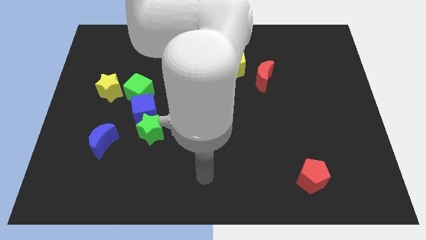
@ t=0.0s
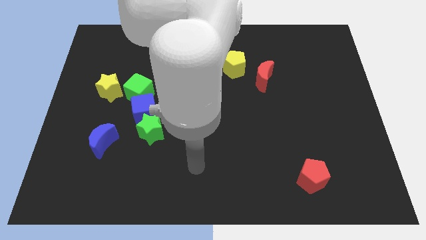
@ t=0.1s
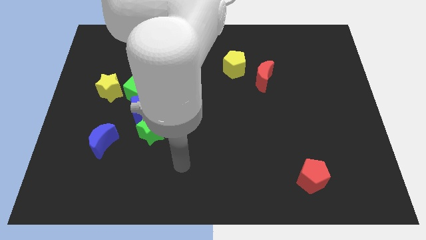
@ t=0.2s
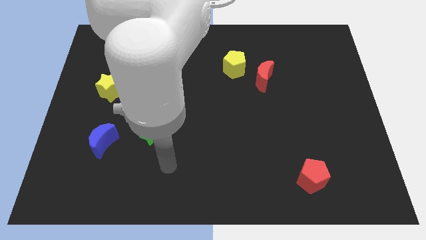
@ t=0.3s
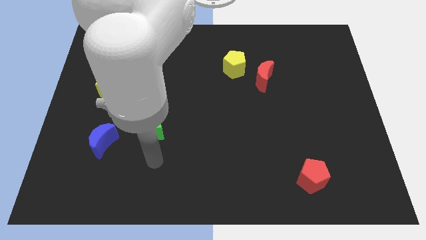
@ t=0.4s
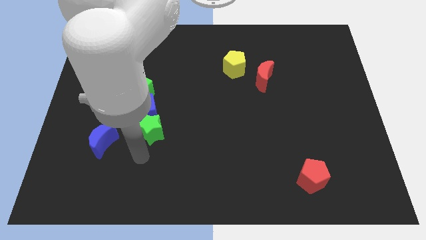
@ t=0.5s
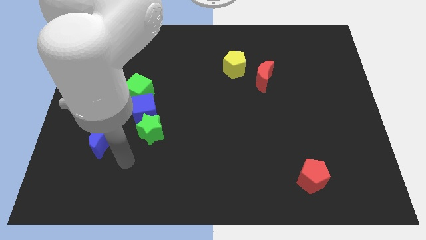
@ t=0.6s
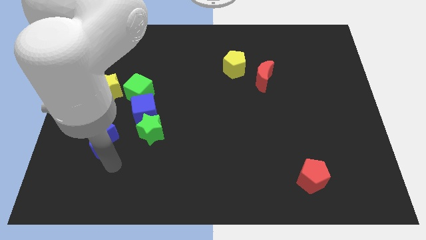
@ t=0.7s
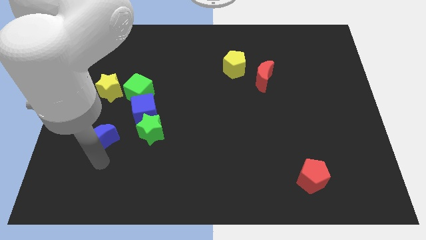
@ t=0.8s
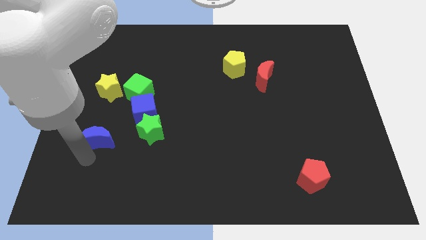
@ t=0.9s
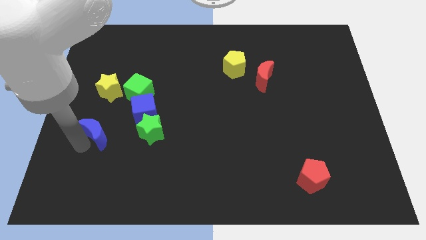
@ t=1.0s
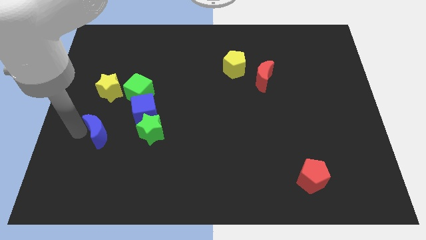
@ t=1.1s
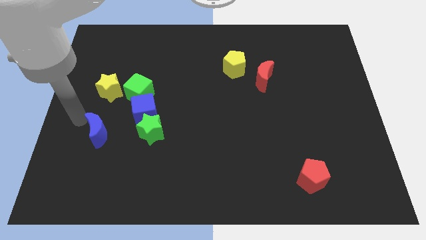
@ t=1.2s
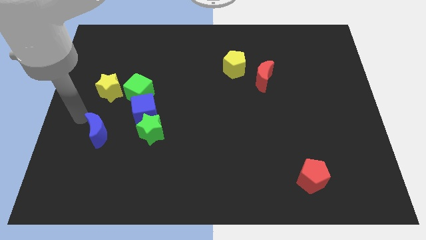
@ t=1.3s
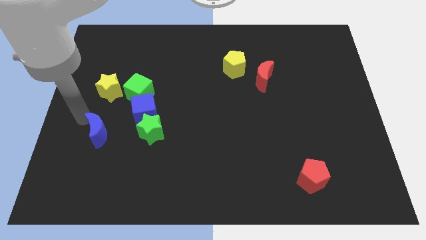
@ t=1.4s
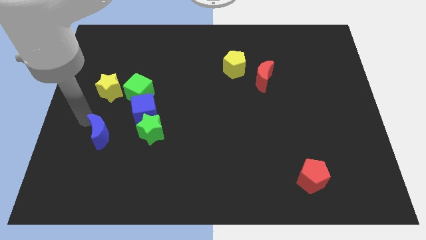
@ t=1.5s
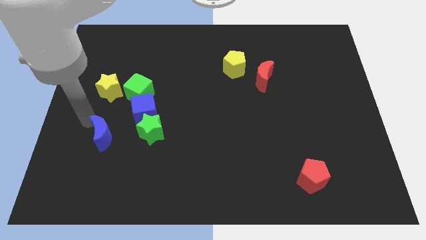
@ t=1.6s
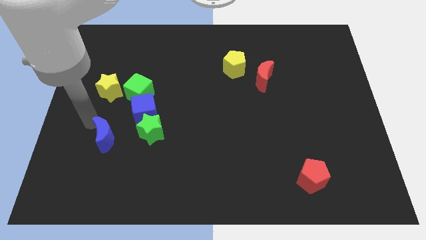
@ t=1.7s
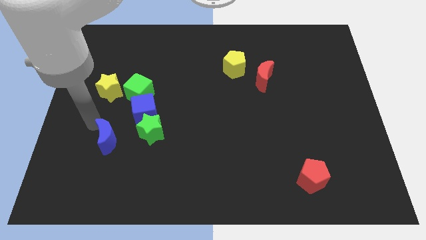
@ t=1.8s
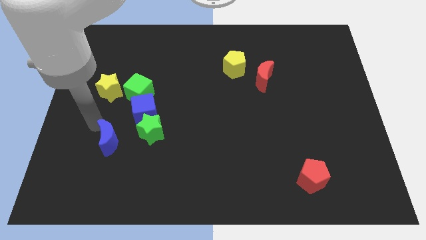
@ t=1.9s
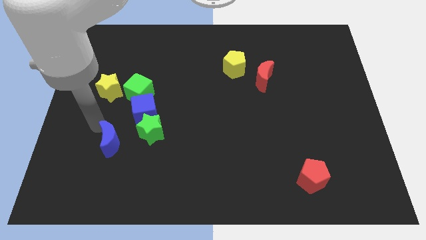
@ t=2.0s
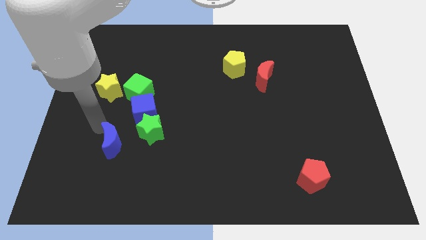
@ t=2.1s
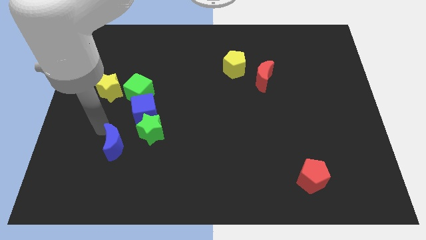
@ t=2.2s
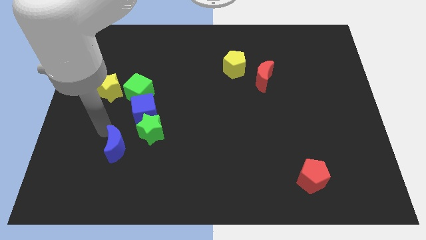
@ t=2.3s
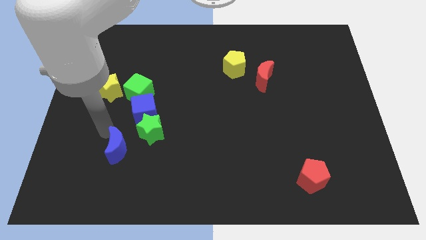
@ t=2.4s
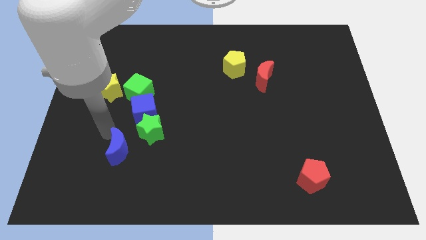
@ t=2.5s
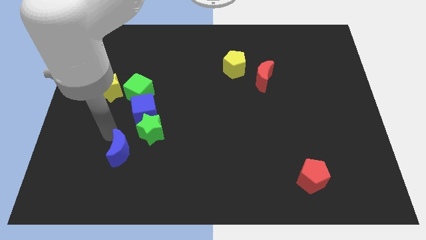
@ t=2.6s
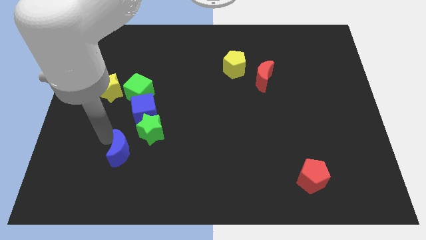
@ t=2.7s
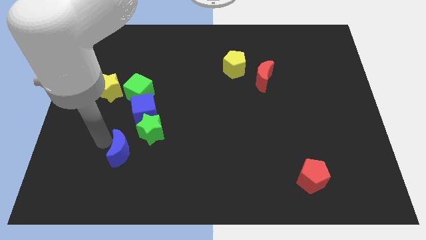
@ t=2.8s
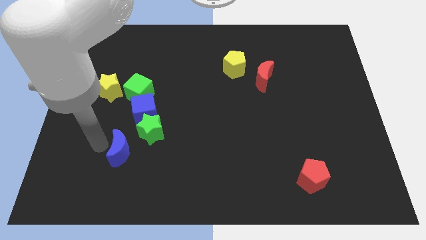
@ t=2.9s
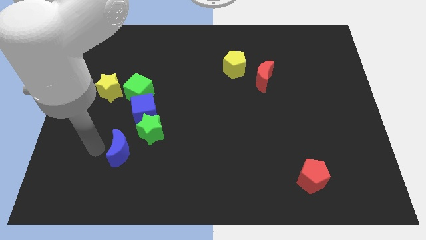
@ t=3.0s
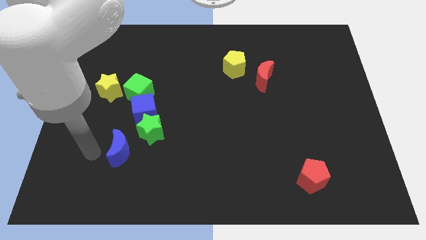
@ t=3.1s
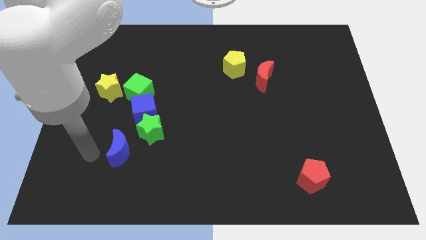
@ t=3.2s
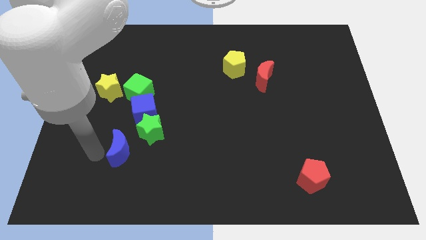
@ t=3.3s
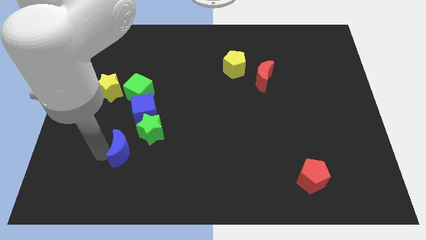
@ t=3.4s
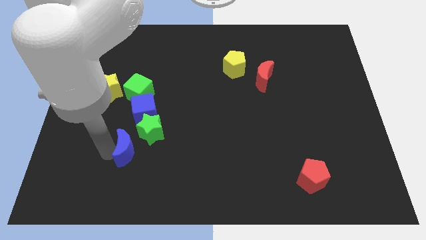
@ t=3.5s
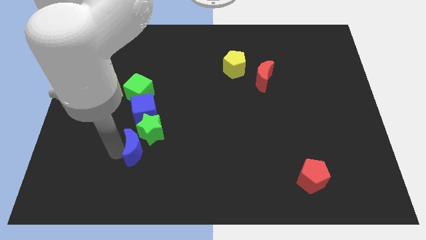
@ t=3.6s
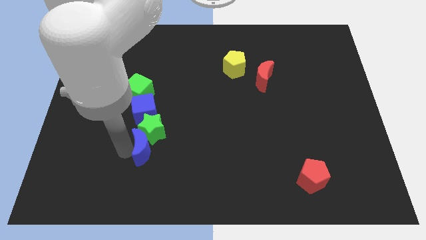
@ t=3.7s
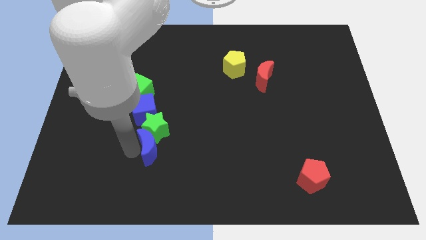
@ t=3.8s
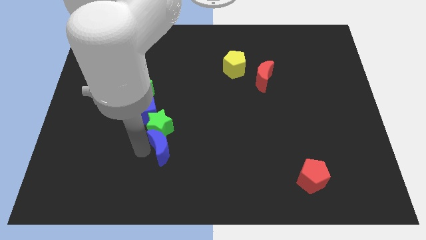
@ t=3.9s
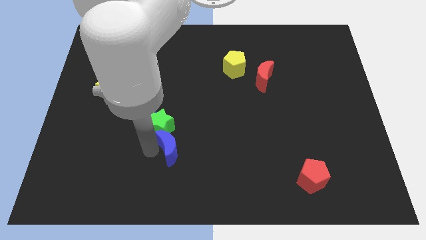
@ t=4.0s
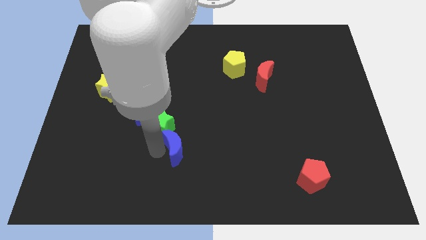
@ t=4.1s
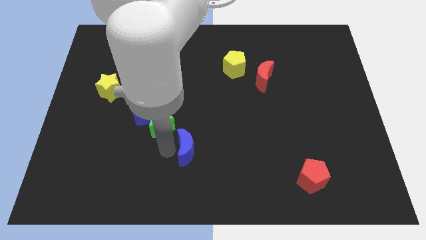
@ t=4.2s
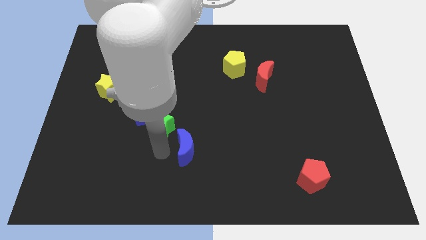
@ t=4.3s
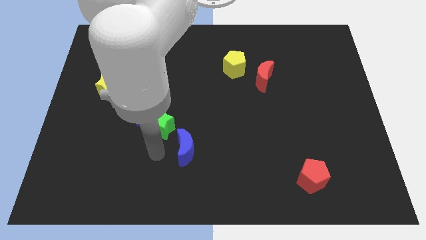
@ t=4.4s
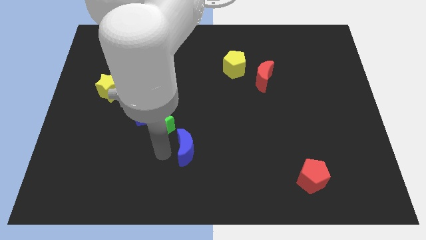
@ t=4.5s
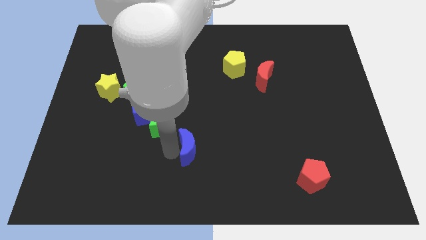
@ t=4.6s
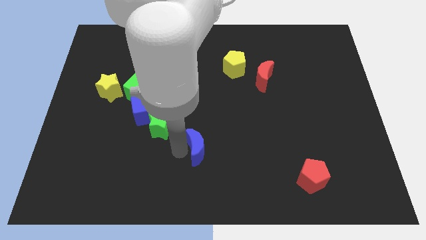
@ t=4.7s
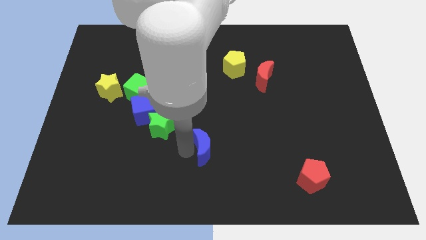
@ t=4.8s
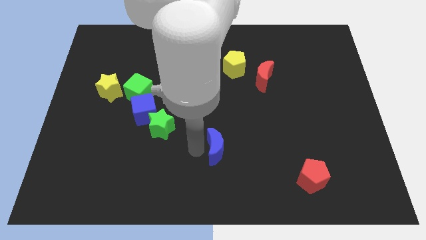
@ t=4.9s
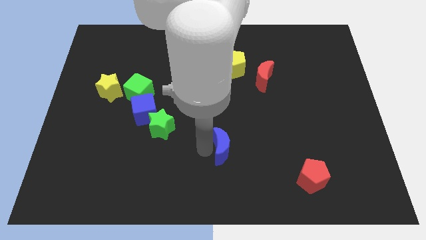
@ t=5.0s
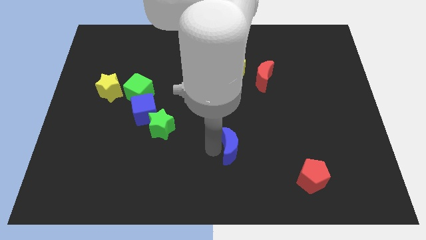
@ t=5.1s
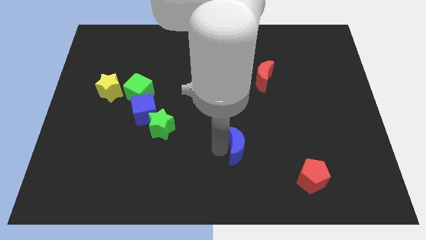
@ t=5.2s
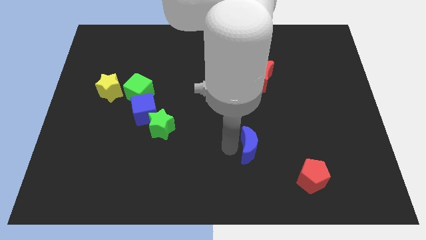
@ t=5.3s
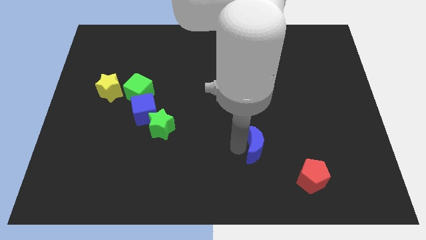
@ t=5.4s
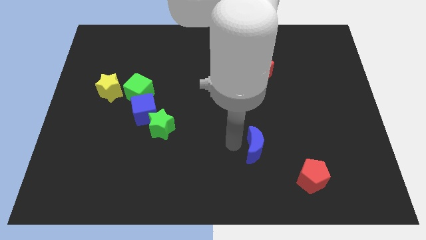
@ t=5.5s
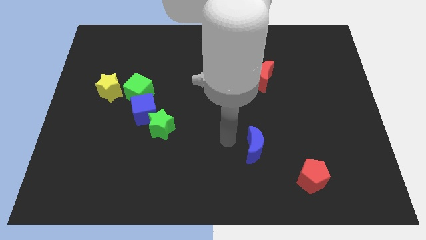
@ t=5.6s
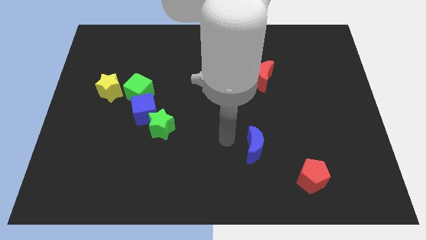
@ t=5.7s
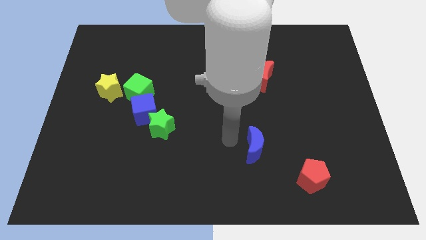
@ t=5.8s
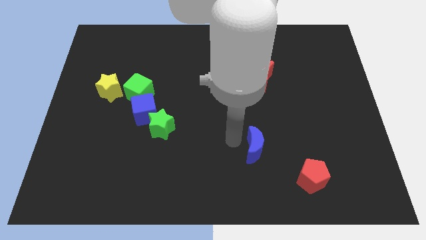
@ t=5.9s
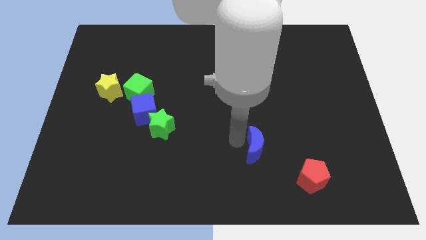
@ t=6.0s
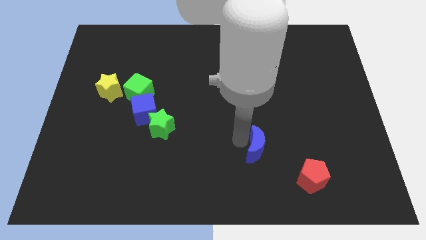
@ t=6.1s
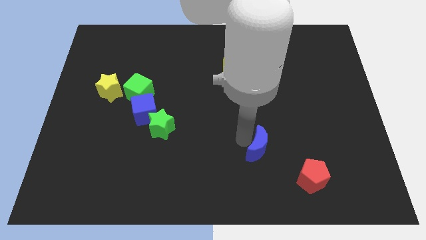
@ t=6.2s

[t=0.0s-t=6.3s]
put the blue moon to the top left side of the red pentagon
